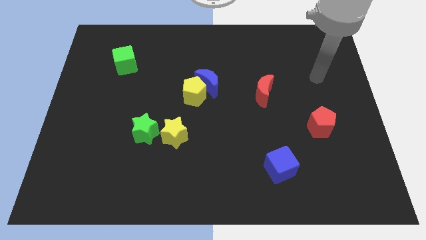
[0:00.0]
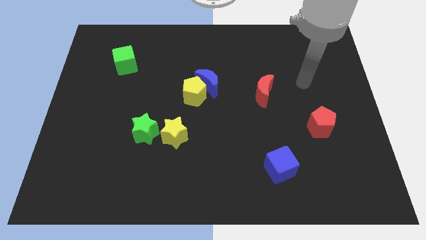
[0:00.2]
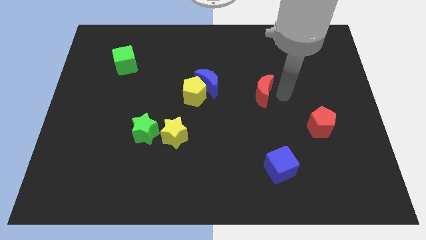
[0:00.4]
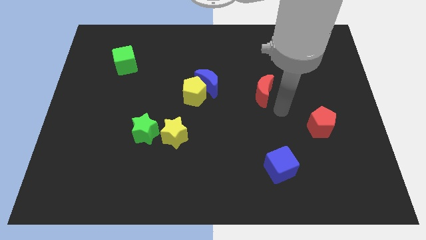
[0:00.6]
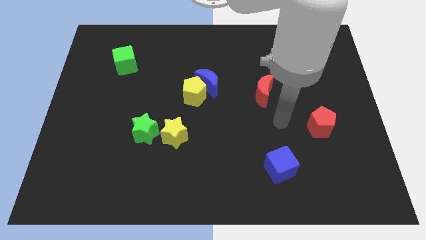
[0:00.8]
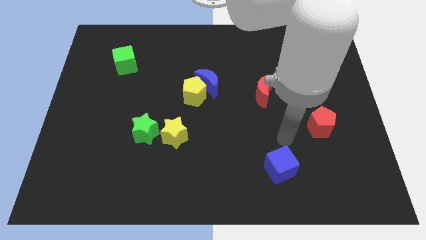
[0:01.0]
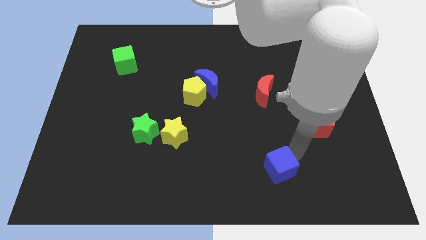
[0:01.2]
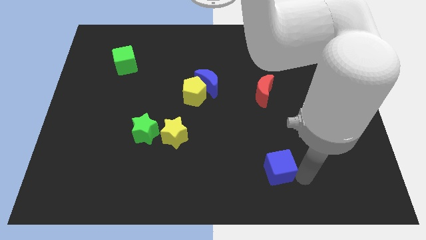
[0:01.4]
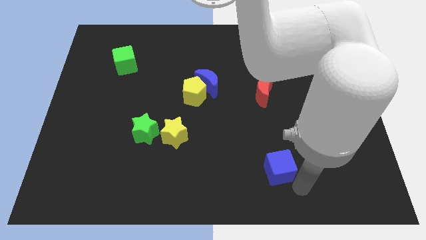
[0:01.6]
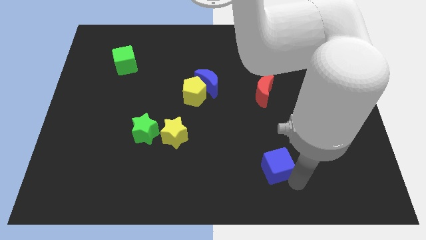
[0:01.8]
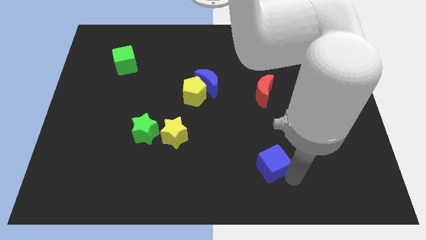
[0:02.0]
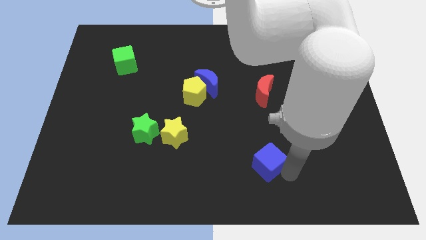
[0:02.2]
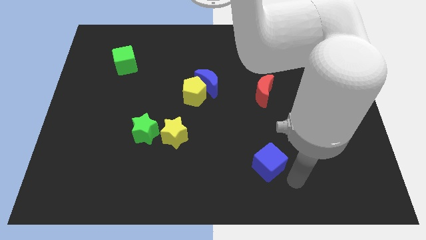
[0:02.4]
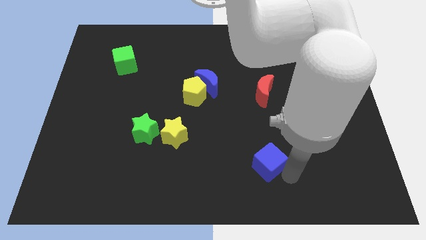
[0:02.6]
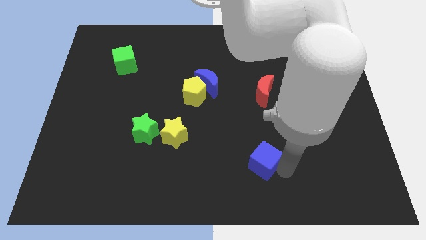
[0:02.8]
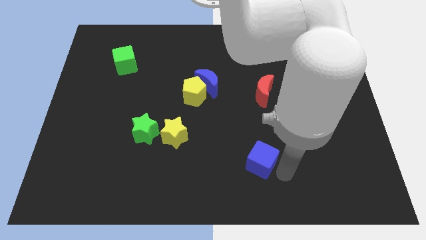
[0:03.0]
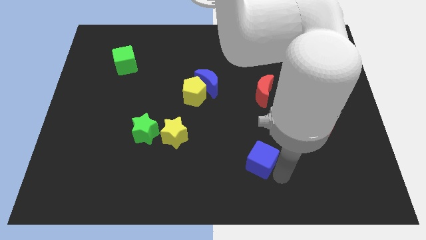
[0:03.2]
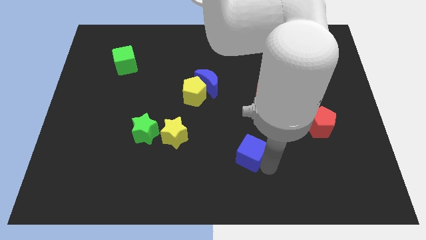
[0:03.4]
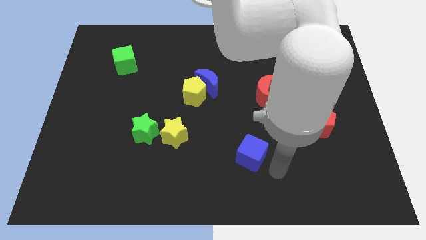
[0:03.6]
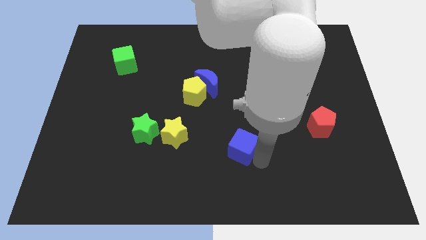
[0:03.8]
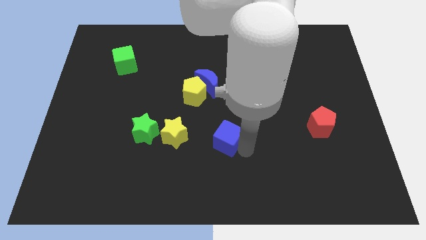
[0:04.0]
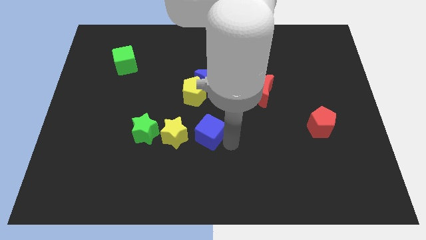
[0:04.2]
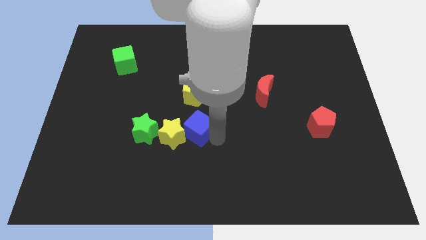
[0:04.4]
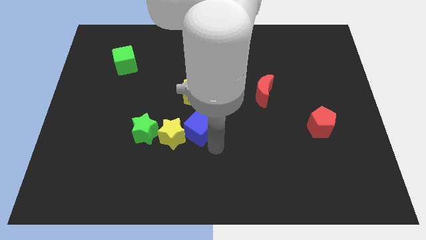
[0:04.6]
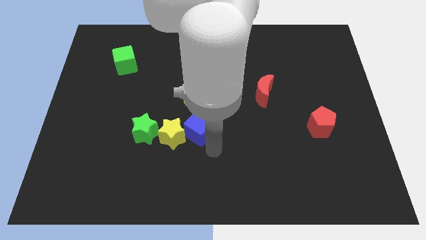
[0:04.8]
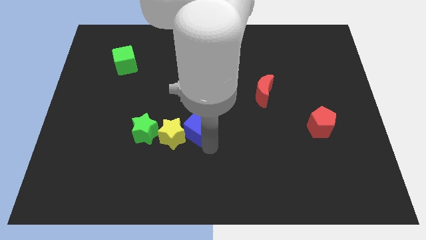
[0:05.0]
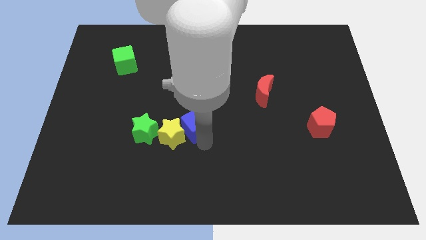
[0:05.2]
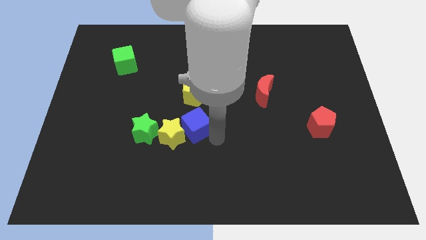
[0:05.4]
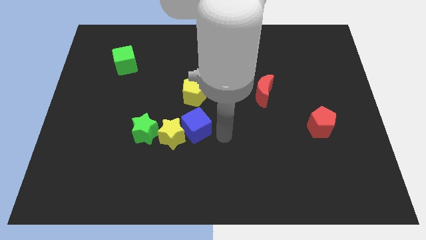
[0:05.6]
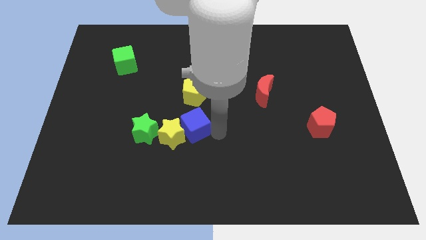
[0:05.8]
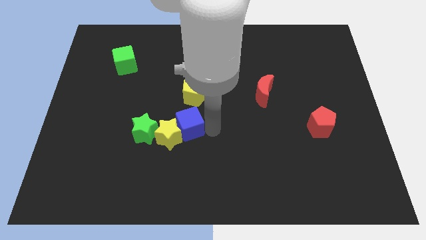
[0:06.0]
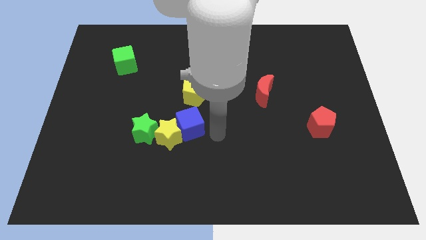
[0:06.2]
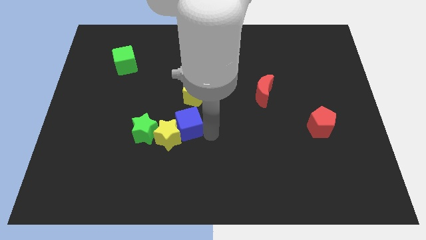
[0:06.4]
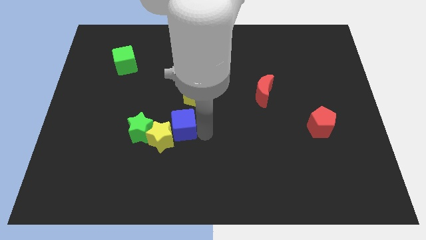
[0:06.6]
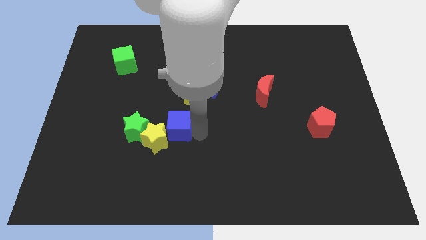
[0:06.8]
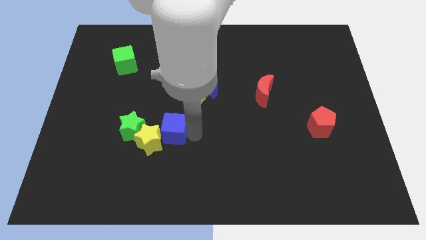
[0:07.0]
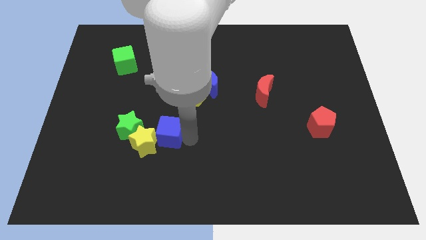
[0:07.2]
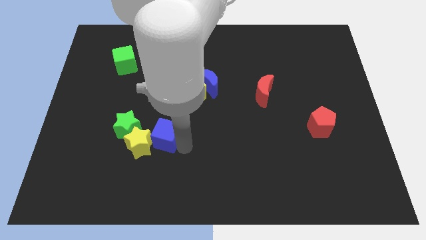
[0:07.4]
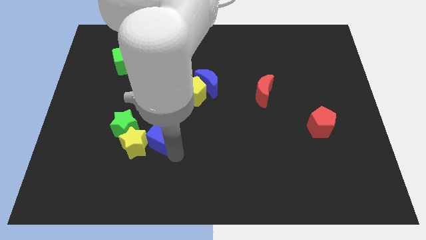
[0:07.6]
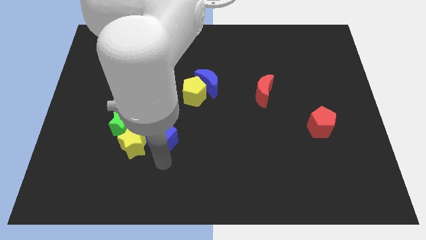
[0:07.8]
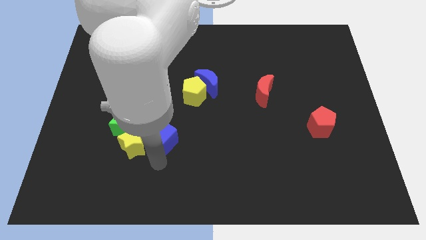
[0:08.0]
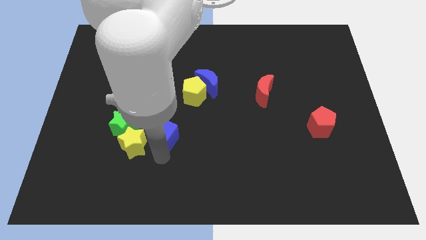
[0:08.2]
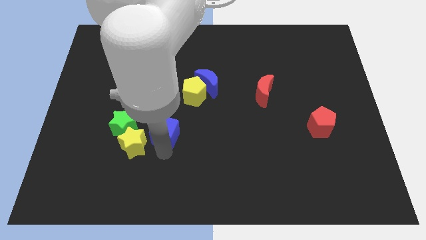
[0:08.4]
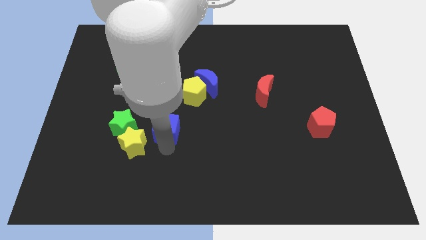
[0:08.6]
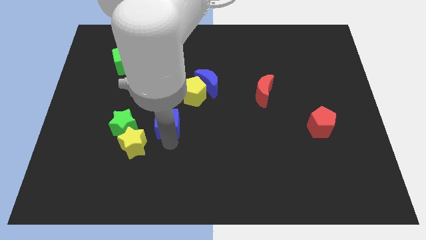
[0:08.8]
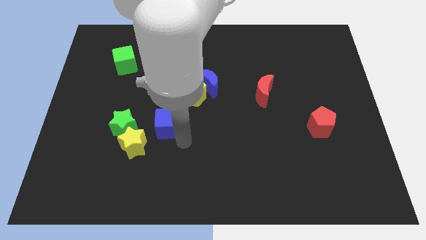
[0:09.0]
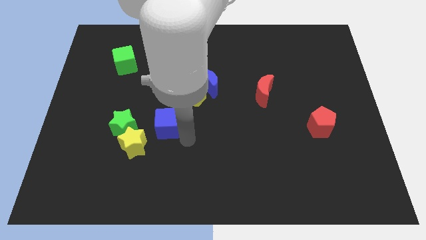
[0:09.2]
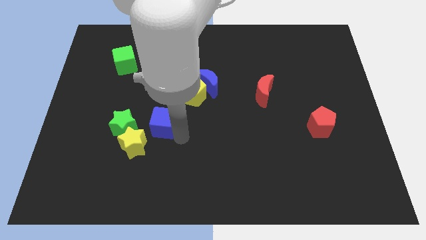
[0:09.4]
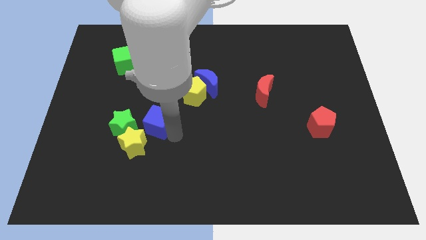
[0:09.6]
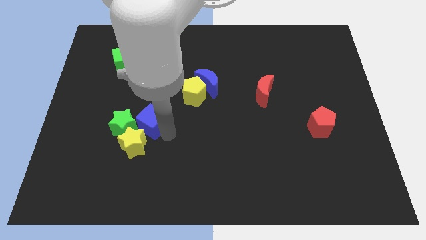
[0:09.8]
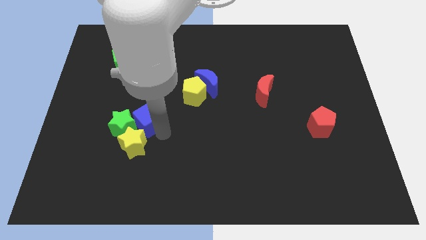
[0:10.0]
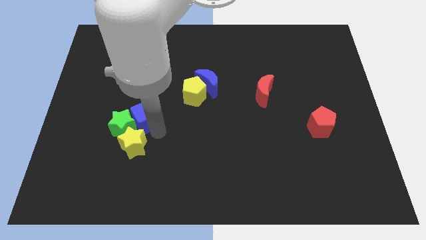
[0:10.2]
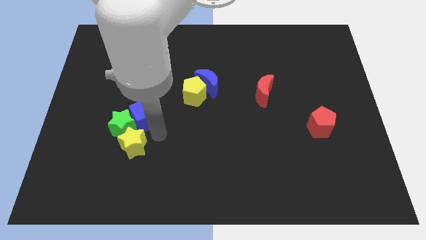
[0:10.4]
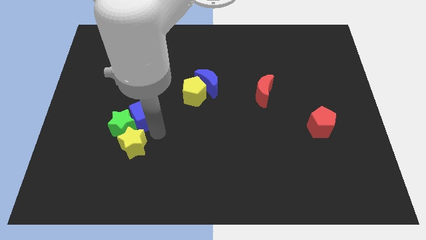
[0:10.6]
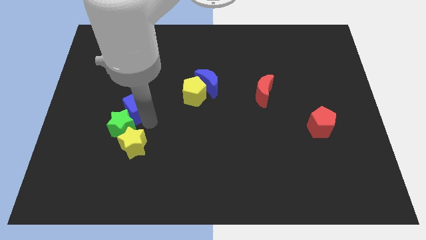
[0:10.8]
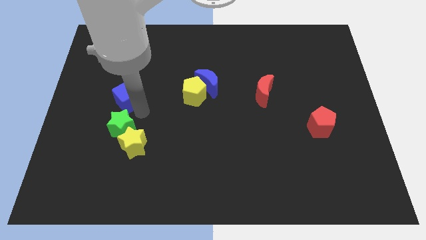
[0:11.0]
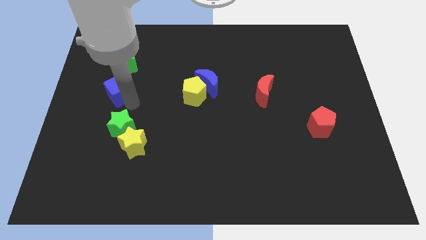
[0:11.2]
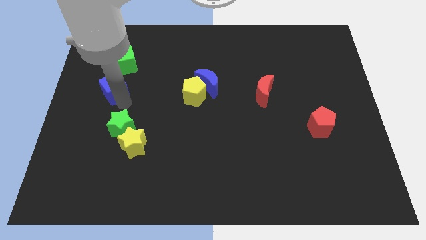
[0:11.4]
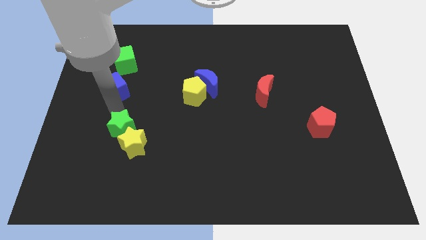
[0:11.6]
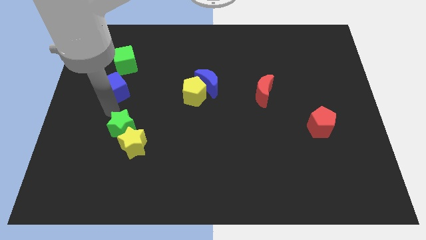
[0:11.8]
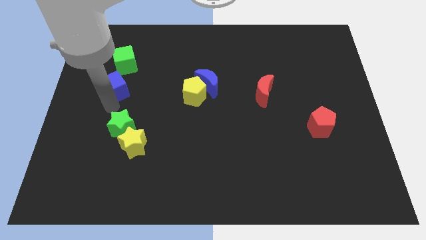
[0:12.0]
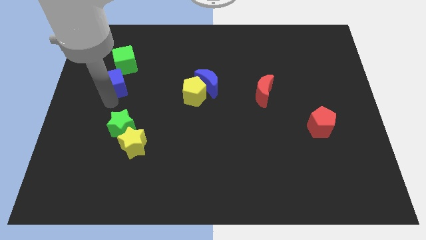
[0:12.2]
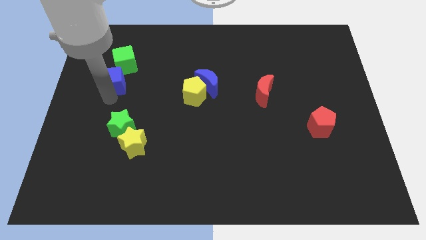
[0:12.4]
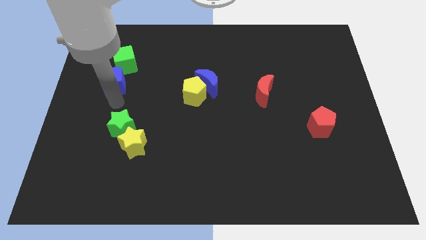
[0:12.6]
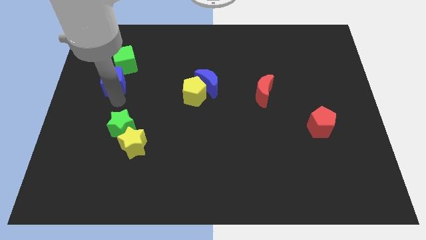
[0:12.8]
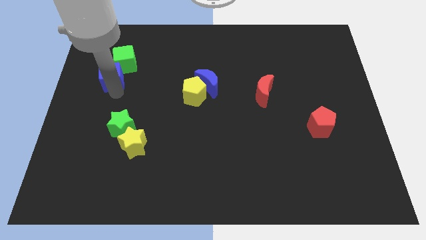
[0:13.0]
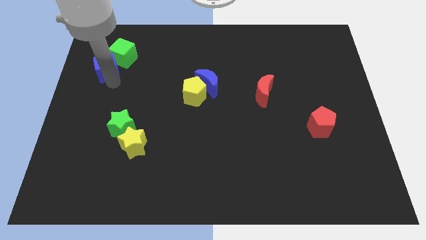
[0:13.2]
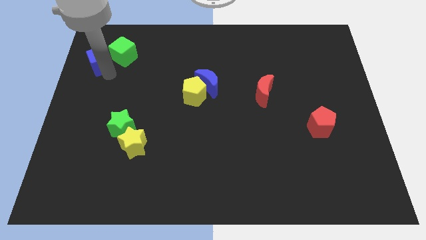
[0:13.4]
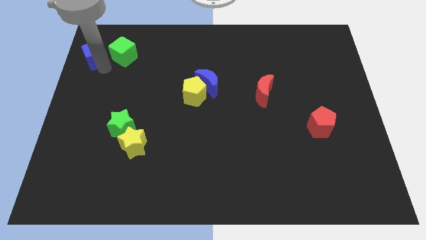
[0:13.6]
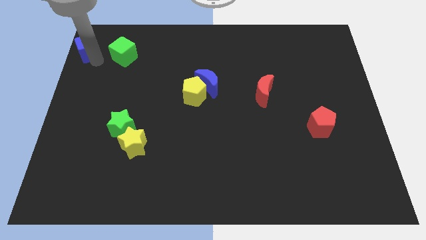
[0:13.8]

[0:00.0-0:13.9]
move the blue cube to the top left

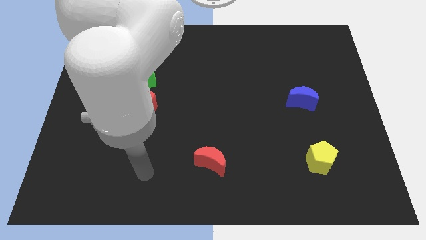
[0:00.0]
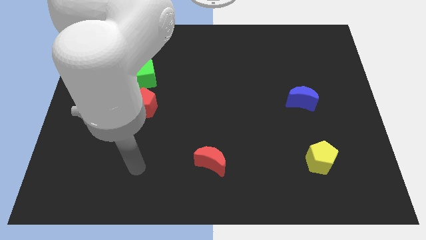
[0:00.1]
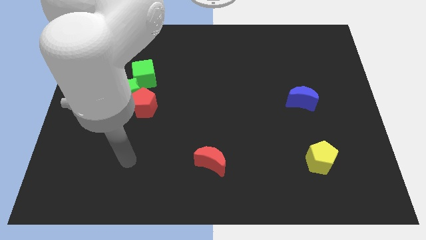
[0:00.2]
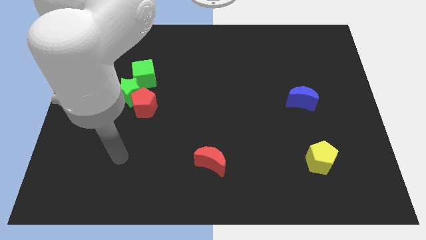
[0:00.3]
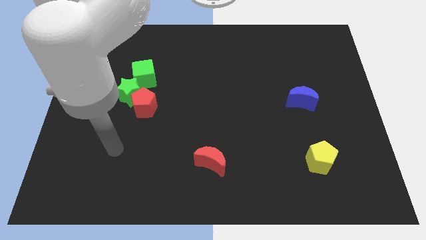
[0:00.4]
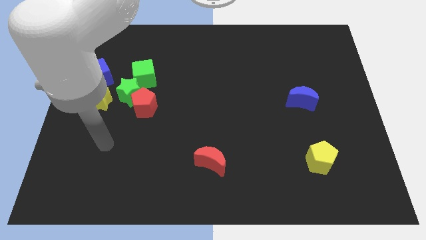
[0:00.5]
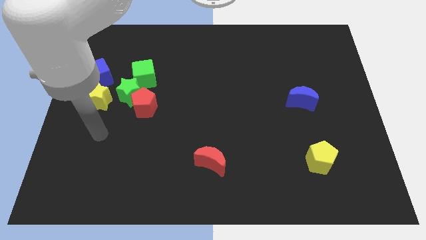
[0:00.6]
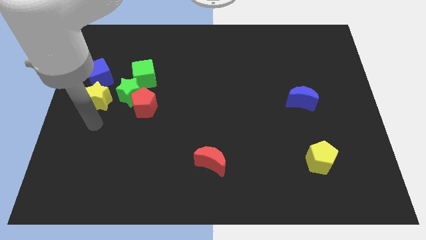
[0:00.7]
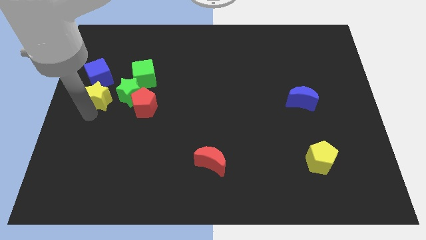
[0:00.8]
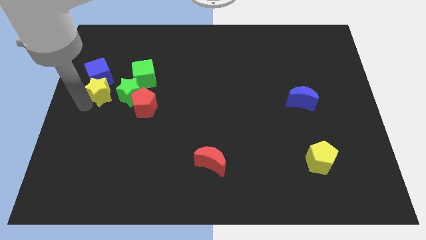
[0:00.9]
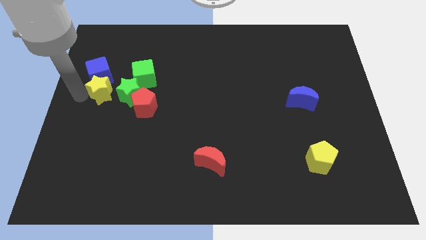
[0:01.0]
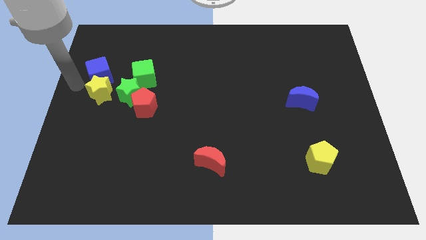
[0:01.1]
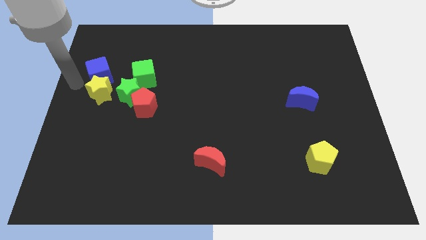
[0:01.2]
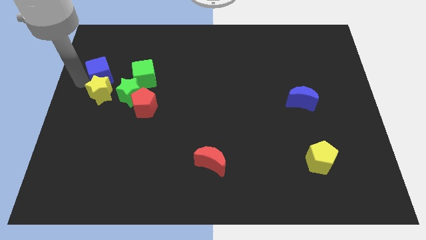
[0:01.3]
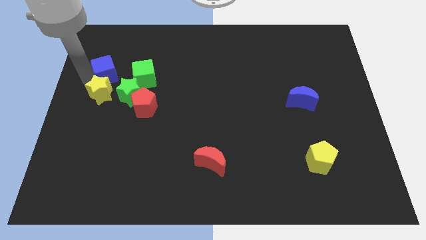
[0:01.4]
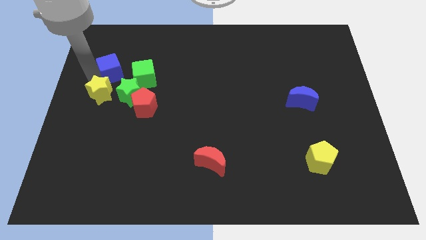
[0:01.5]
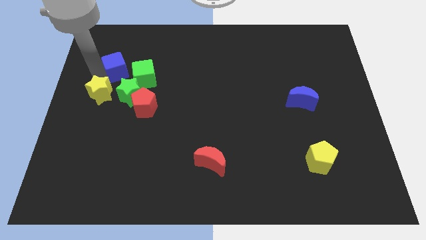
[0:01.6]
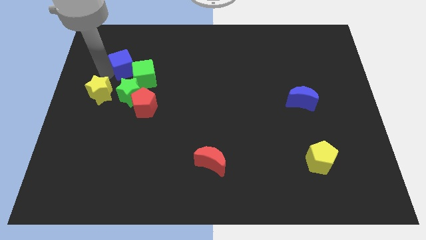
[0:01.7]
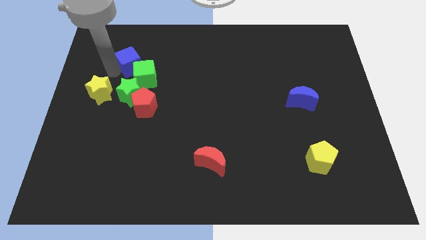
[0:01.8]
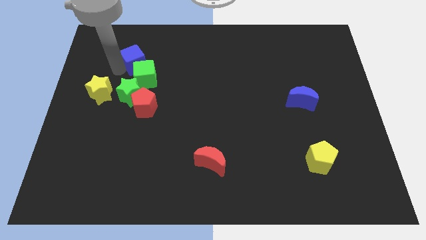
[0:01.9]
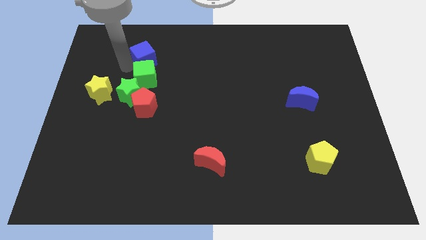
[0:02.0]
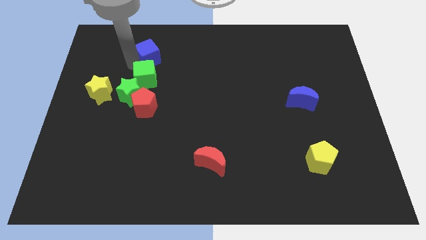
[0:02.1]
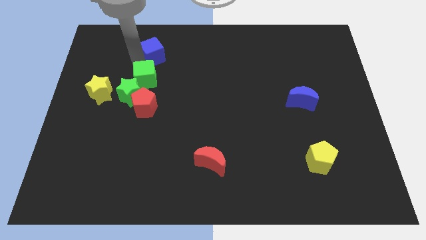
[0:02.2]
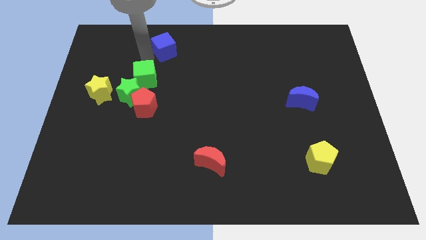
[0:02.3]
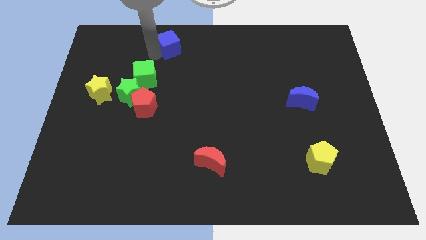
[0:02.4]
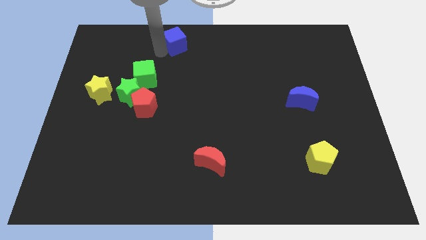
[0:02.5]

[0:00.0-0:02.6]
put the blue cube to the top side
